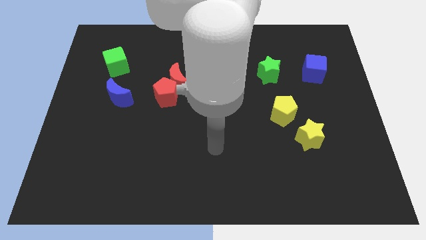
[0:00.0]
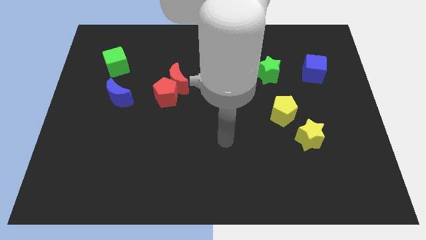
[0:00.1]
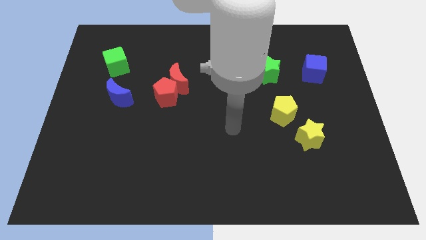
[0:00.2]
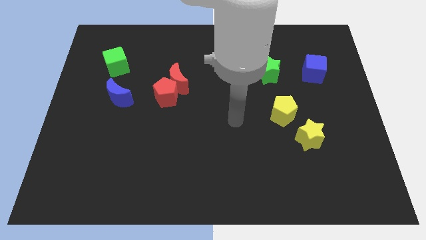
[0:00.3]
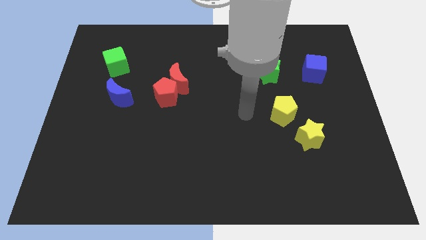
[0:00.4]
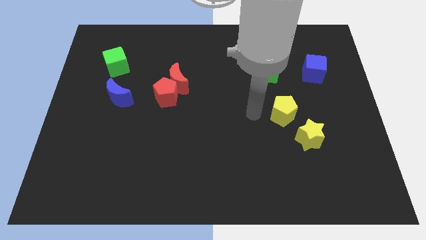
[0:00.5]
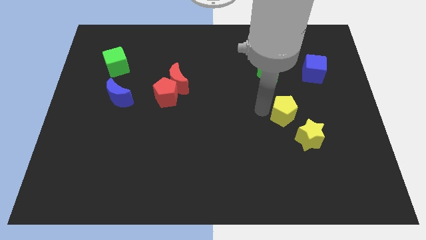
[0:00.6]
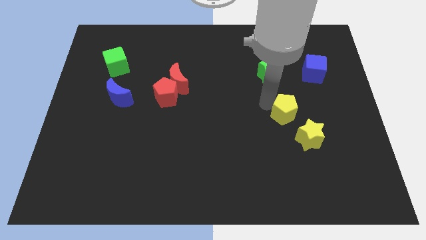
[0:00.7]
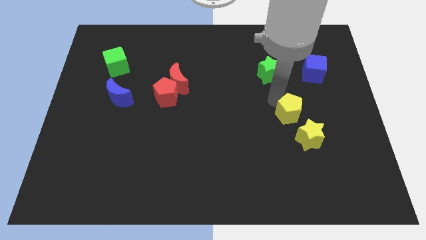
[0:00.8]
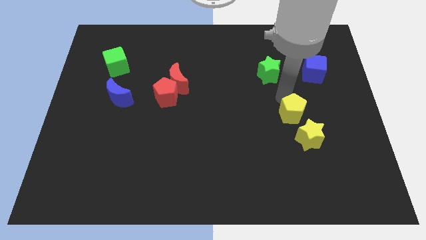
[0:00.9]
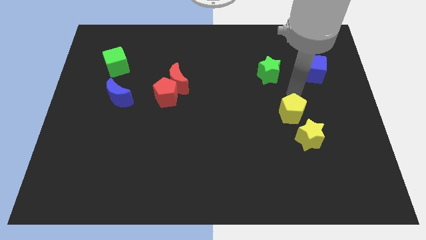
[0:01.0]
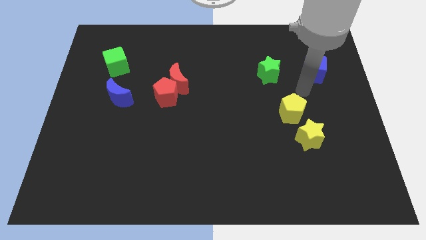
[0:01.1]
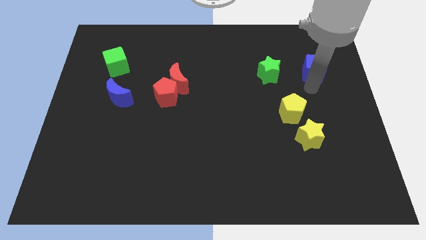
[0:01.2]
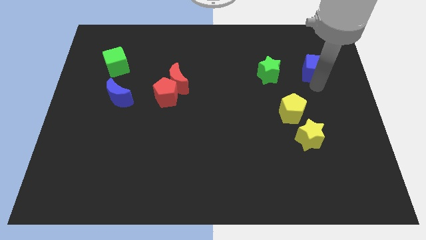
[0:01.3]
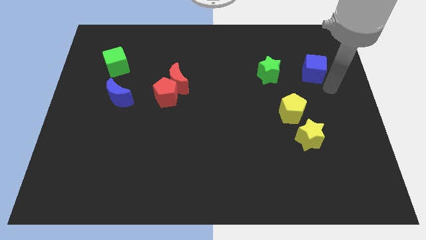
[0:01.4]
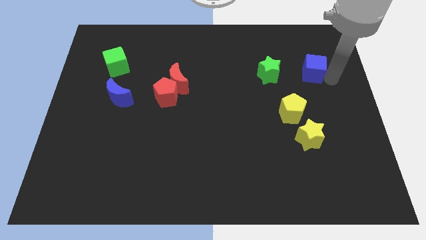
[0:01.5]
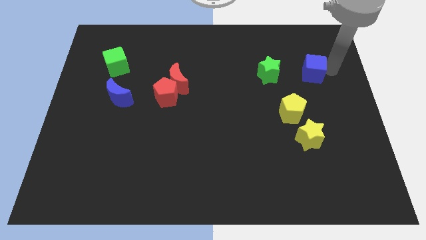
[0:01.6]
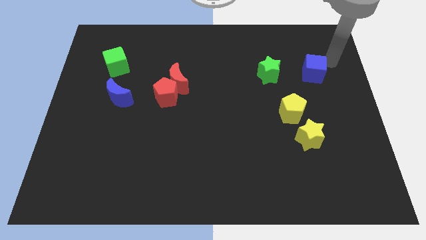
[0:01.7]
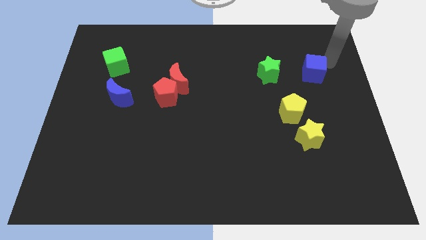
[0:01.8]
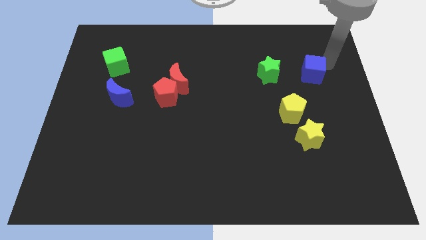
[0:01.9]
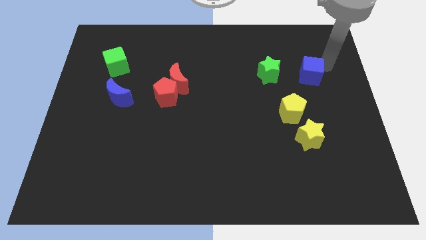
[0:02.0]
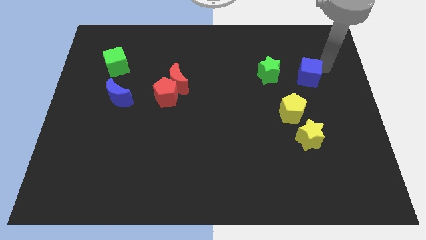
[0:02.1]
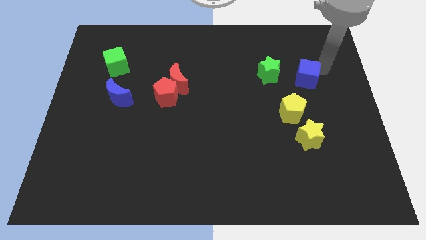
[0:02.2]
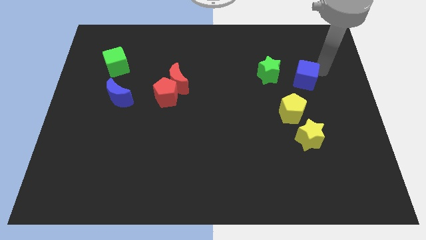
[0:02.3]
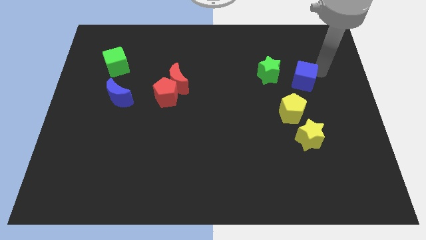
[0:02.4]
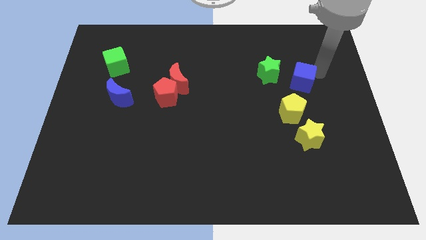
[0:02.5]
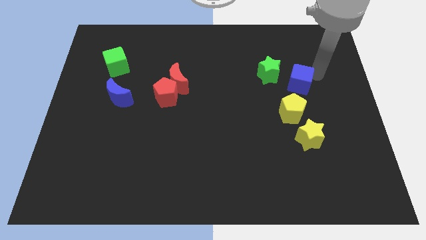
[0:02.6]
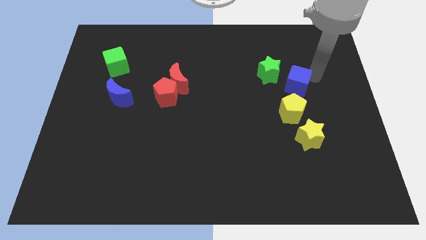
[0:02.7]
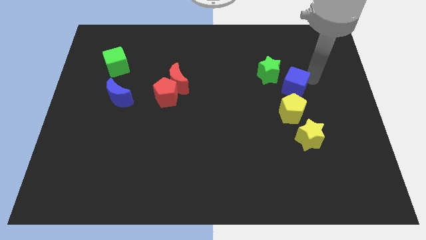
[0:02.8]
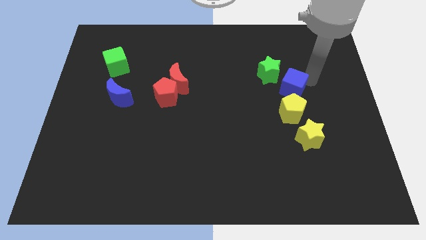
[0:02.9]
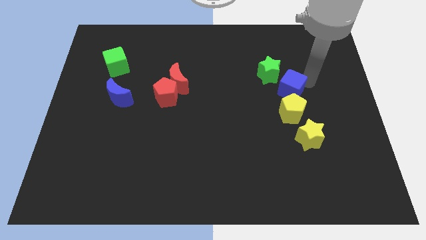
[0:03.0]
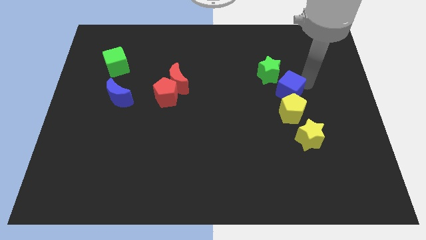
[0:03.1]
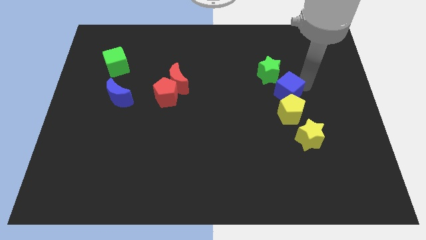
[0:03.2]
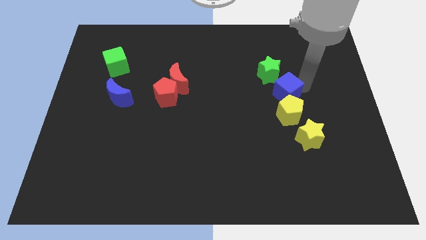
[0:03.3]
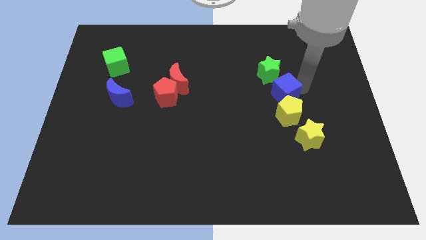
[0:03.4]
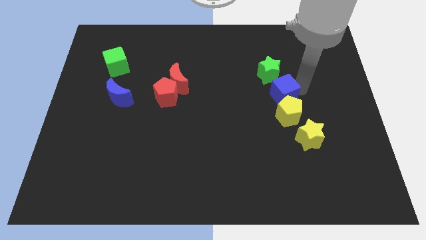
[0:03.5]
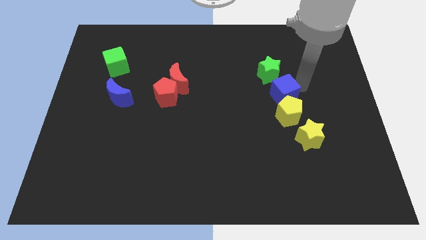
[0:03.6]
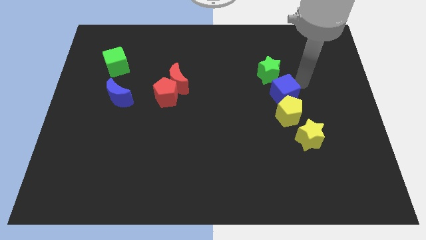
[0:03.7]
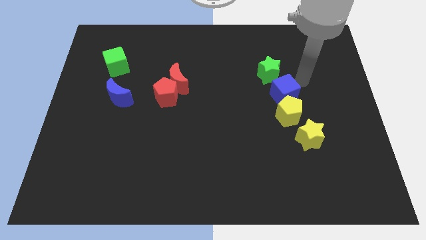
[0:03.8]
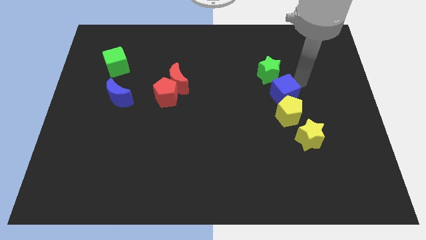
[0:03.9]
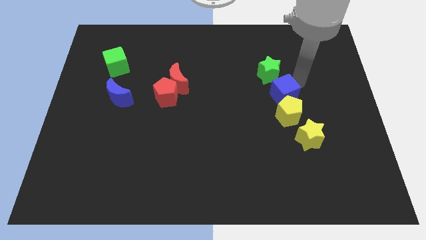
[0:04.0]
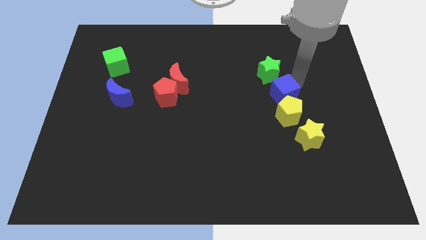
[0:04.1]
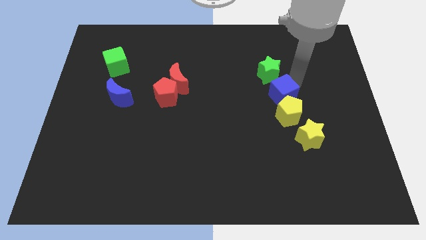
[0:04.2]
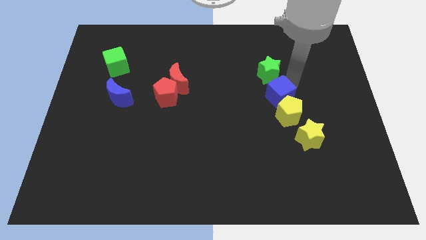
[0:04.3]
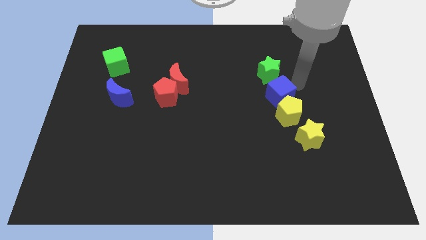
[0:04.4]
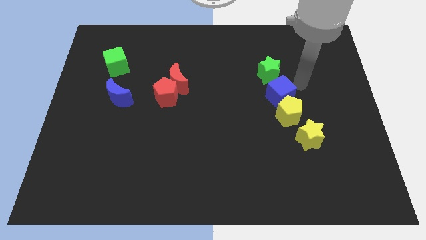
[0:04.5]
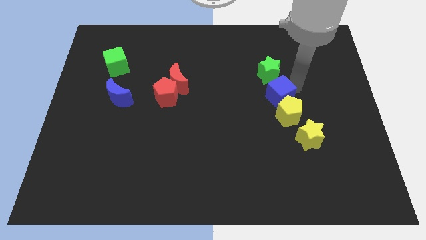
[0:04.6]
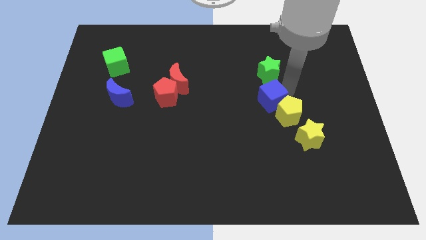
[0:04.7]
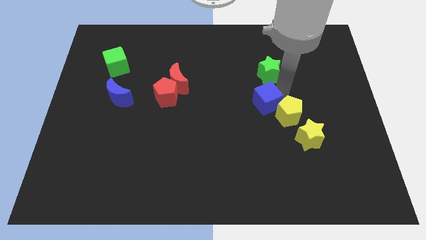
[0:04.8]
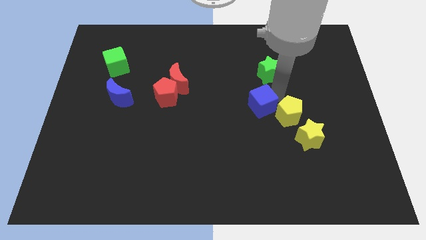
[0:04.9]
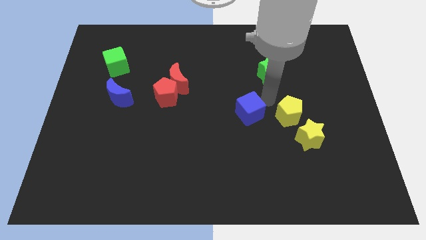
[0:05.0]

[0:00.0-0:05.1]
move the blue cube downwards and then to the left

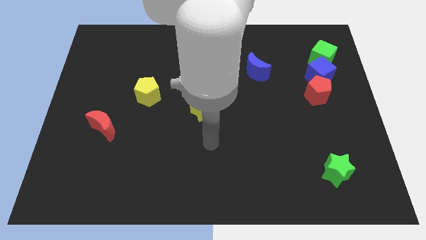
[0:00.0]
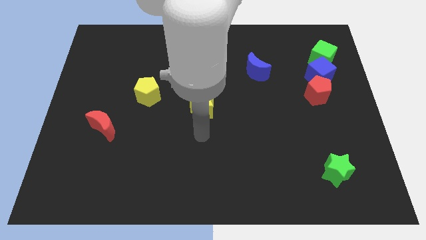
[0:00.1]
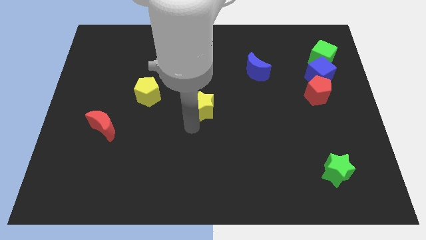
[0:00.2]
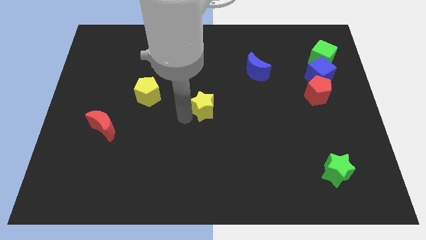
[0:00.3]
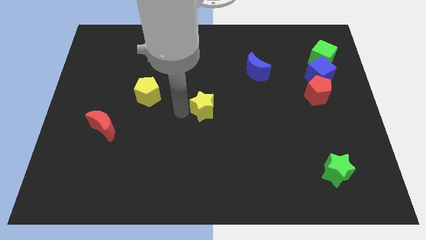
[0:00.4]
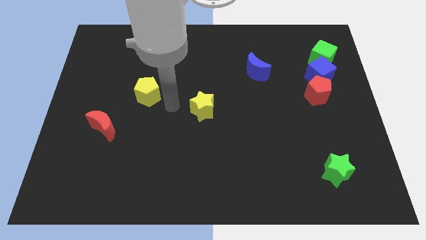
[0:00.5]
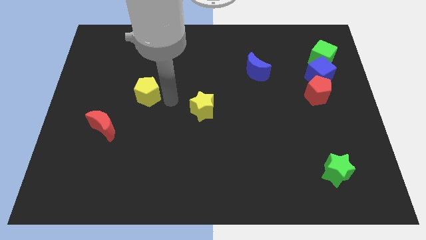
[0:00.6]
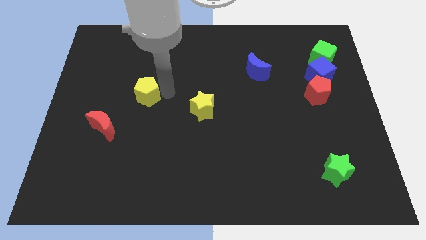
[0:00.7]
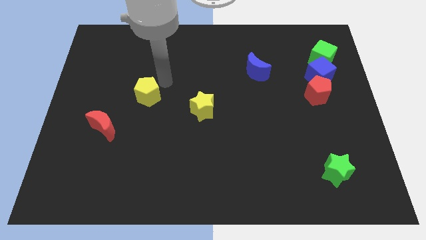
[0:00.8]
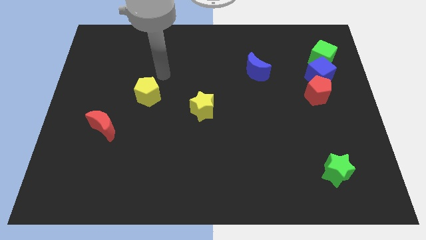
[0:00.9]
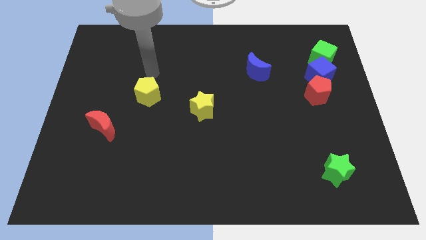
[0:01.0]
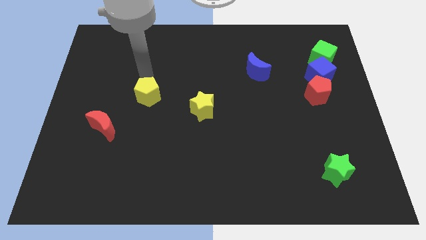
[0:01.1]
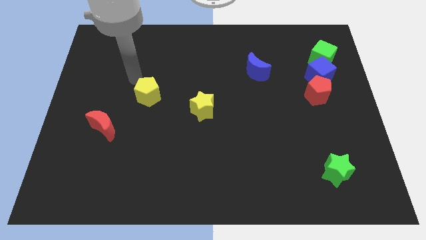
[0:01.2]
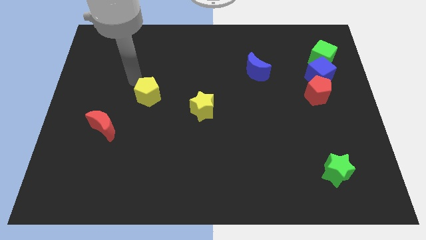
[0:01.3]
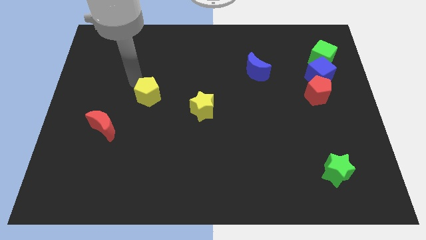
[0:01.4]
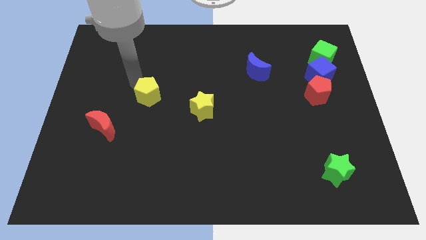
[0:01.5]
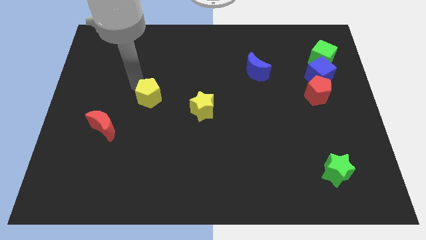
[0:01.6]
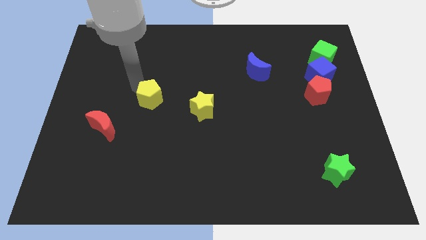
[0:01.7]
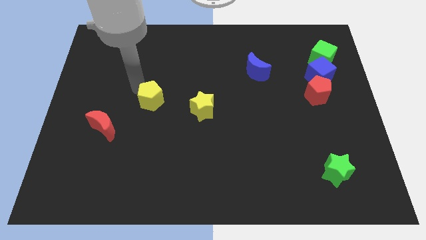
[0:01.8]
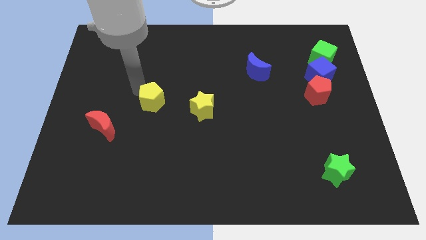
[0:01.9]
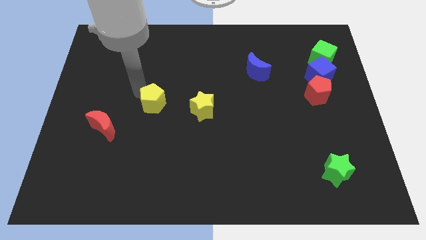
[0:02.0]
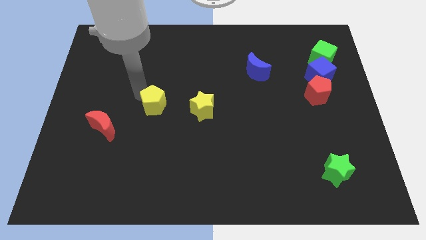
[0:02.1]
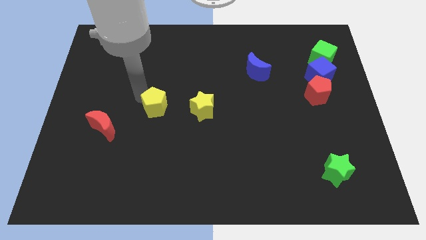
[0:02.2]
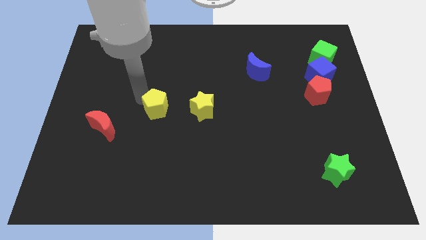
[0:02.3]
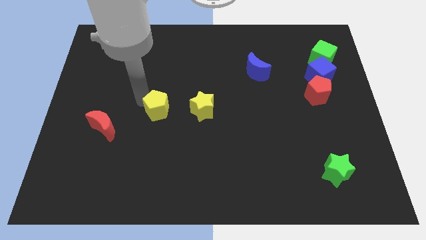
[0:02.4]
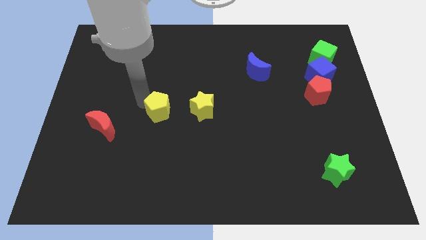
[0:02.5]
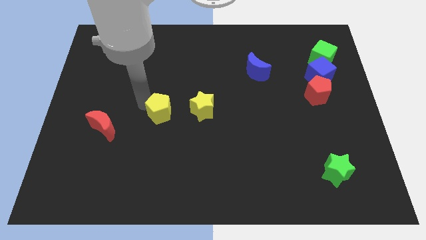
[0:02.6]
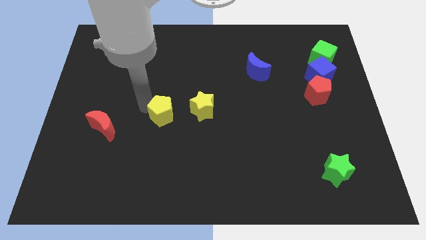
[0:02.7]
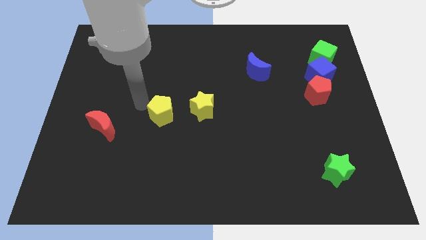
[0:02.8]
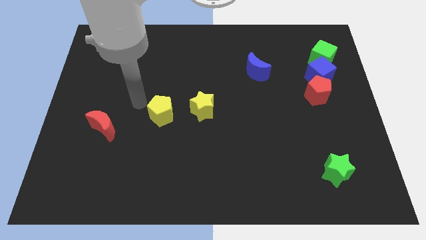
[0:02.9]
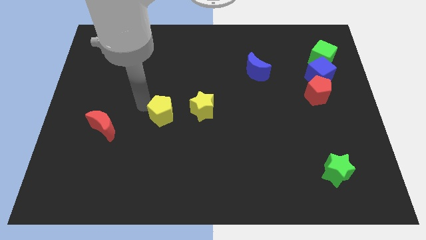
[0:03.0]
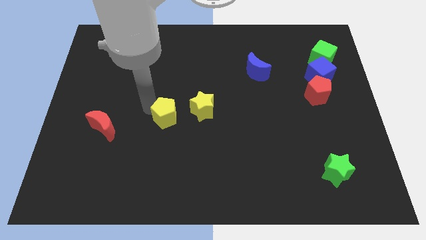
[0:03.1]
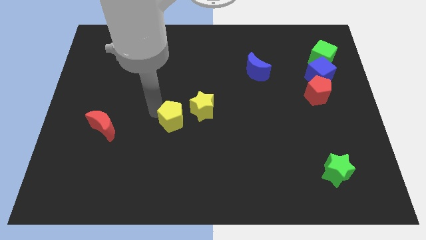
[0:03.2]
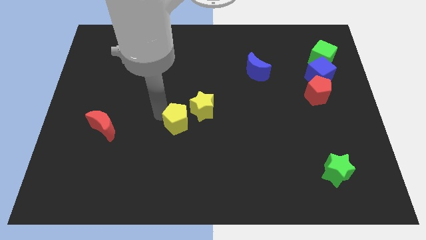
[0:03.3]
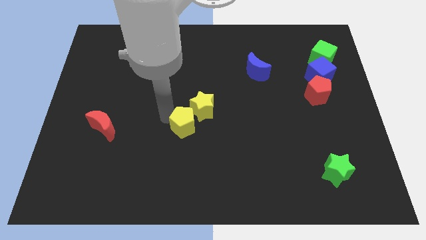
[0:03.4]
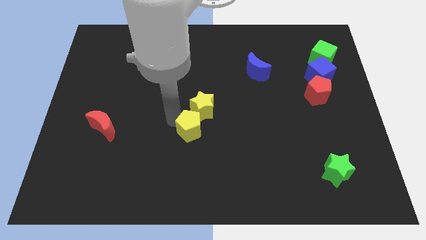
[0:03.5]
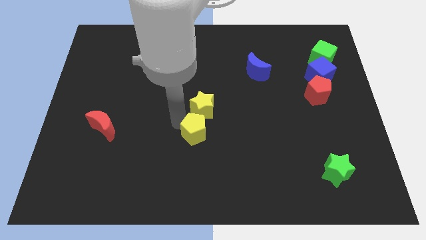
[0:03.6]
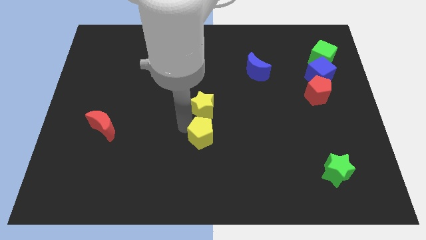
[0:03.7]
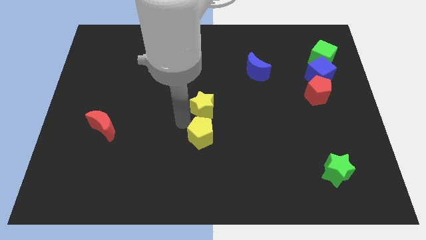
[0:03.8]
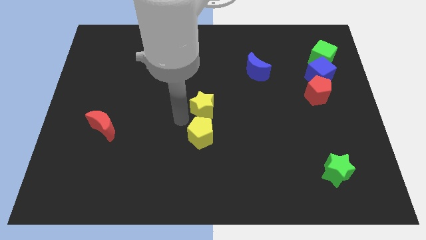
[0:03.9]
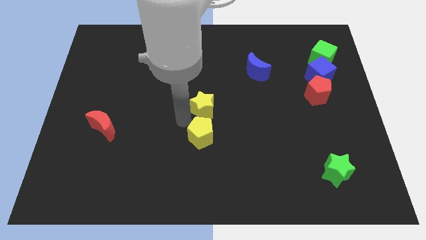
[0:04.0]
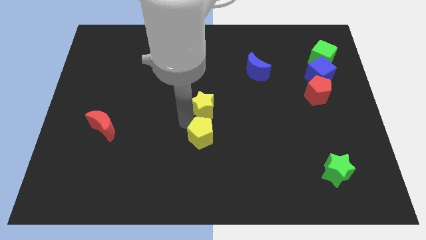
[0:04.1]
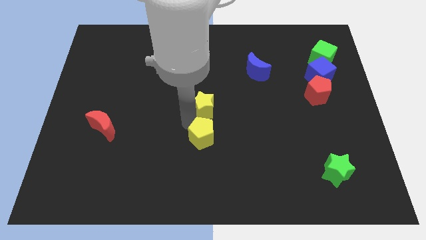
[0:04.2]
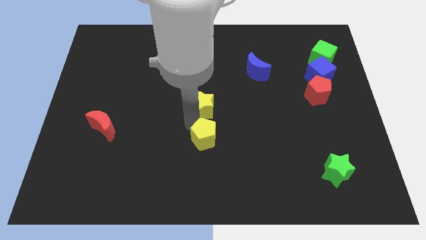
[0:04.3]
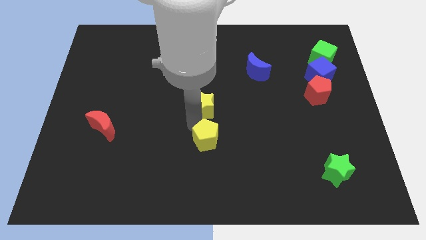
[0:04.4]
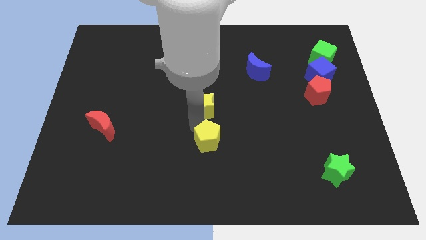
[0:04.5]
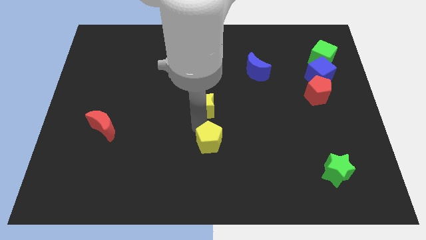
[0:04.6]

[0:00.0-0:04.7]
slide the yellow pentagon downwards and to the right
